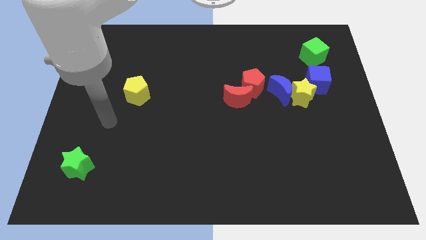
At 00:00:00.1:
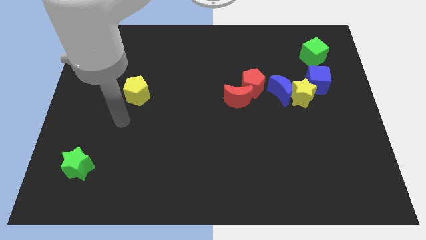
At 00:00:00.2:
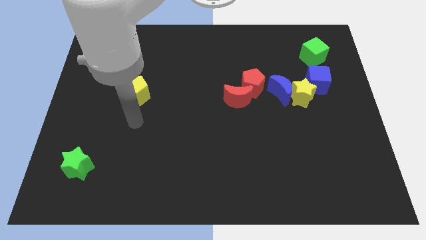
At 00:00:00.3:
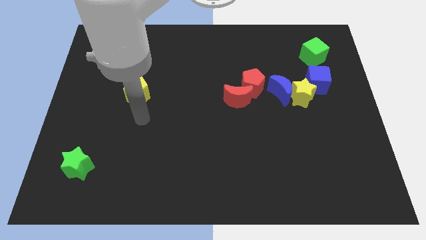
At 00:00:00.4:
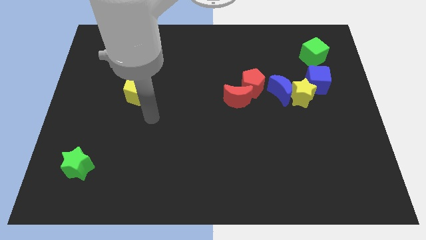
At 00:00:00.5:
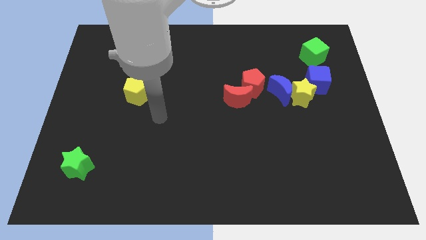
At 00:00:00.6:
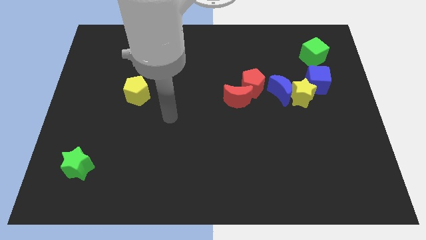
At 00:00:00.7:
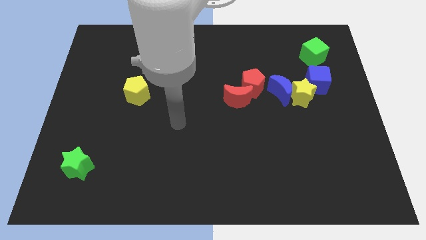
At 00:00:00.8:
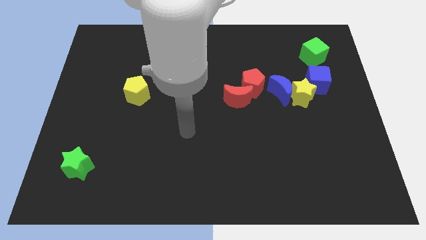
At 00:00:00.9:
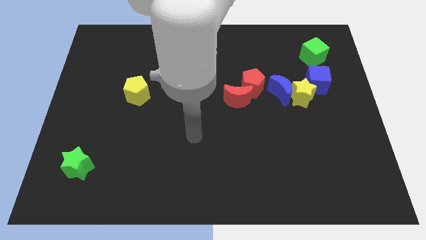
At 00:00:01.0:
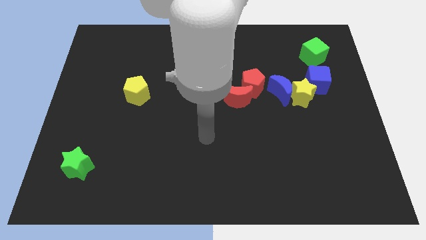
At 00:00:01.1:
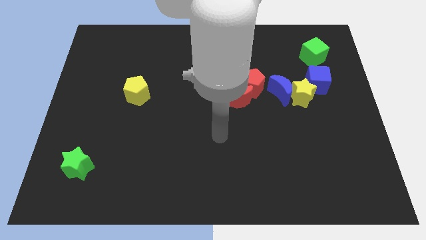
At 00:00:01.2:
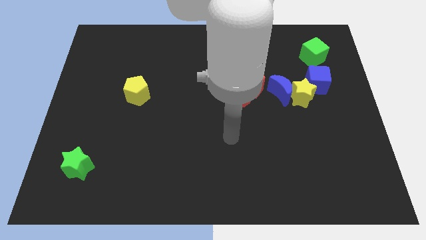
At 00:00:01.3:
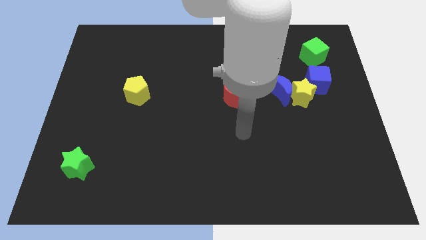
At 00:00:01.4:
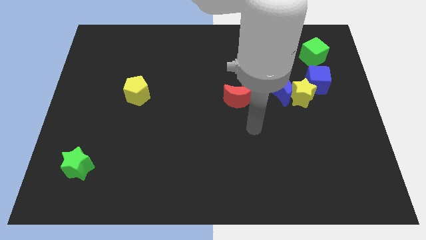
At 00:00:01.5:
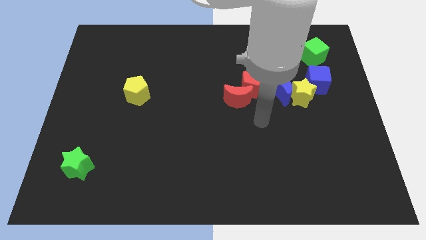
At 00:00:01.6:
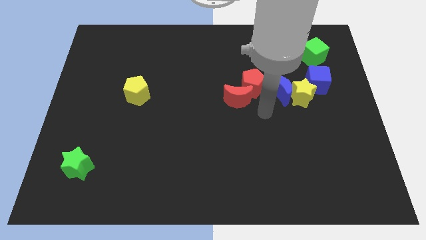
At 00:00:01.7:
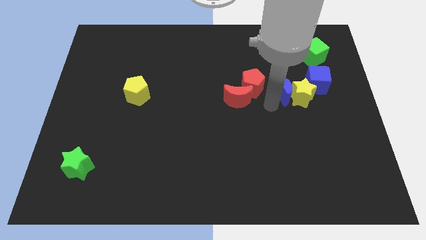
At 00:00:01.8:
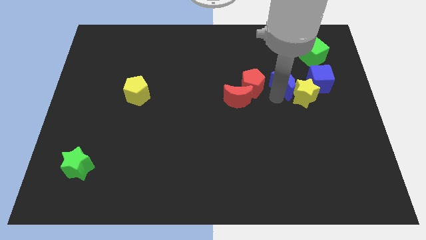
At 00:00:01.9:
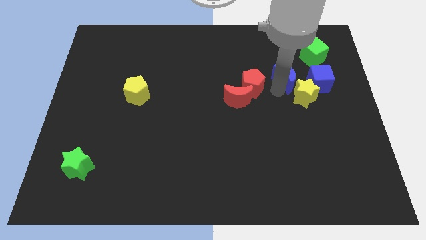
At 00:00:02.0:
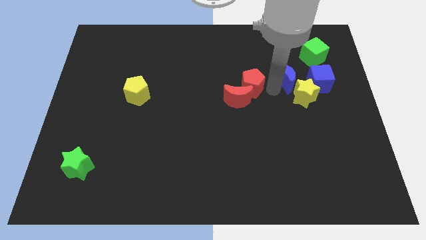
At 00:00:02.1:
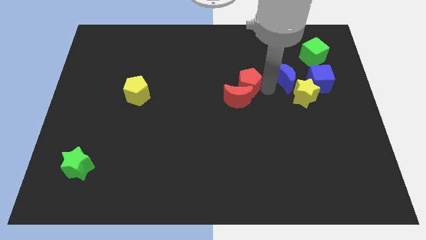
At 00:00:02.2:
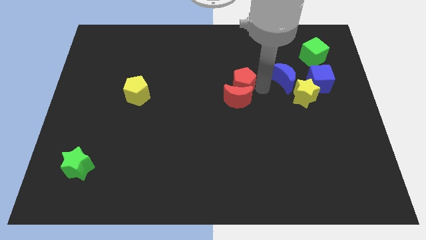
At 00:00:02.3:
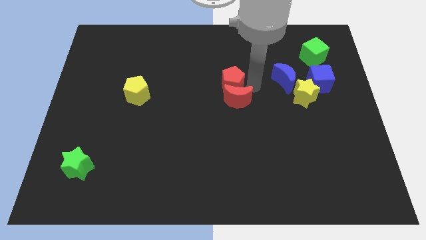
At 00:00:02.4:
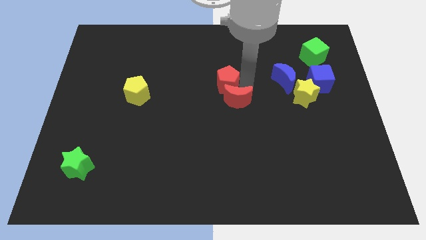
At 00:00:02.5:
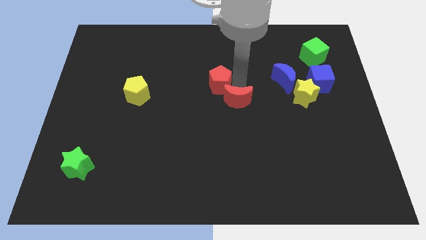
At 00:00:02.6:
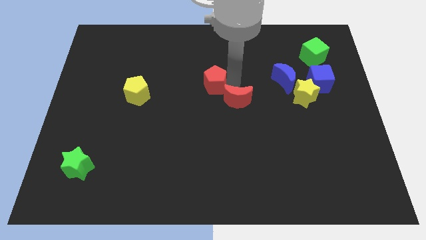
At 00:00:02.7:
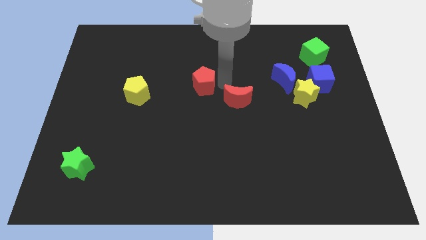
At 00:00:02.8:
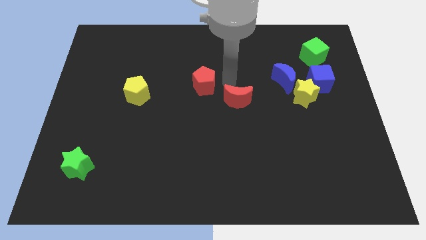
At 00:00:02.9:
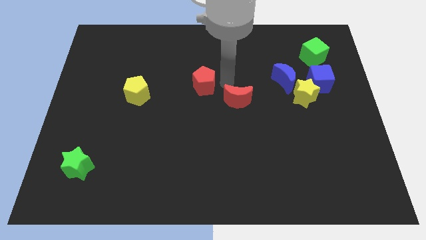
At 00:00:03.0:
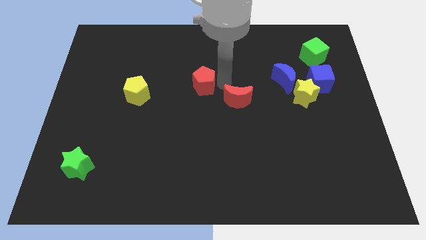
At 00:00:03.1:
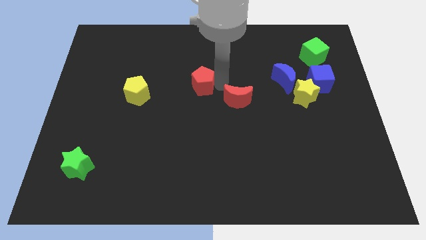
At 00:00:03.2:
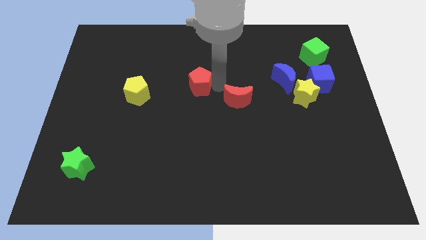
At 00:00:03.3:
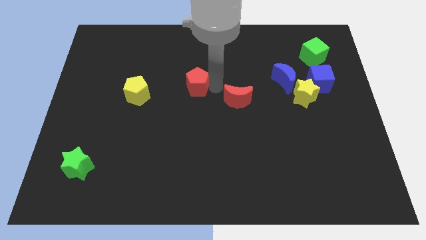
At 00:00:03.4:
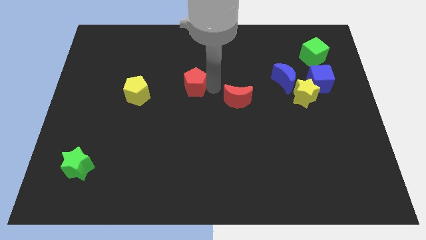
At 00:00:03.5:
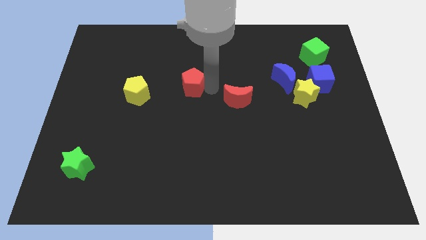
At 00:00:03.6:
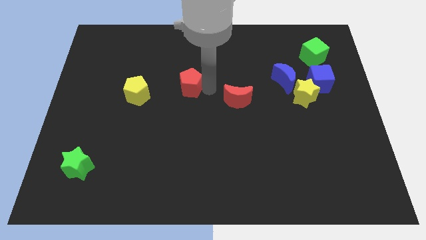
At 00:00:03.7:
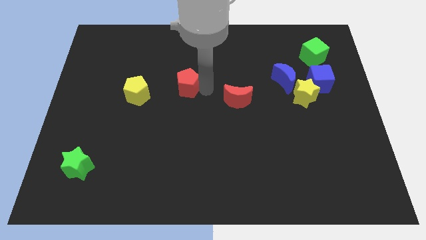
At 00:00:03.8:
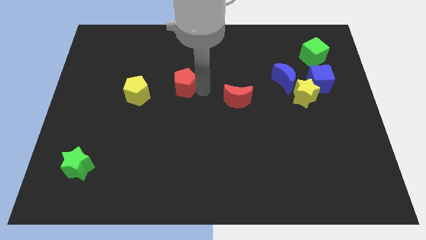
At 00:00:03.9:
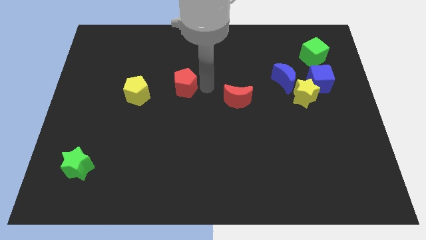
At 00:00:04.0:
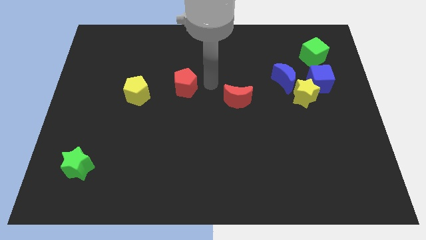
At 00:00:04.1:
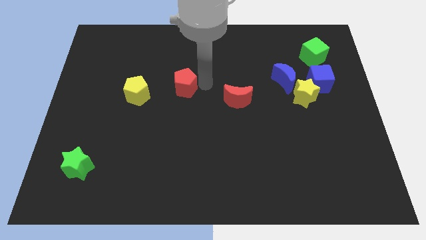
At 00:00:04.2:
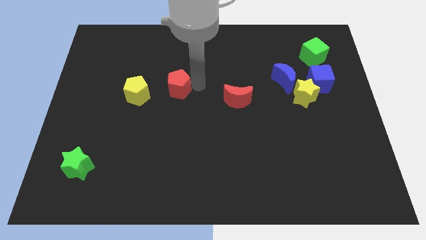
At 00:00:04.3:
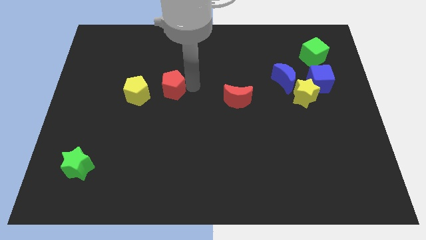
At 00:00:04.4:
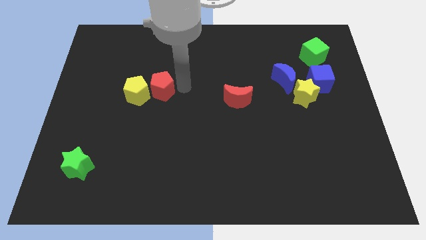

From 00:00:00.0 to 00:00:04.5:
move the red pentagon towards the yellow pentagon

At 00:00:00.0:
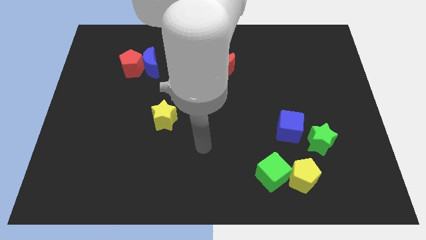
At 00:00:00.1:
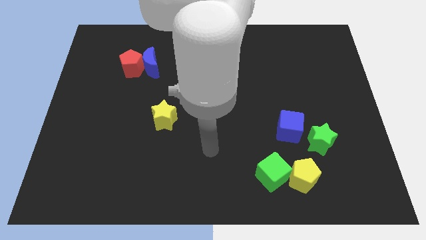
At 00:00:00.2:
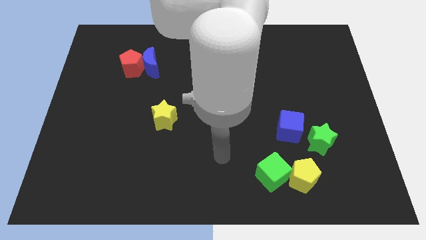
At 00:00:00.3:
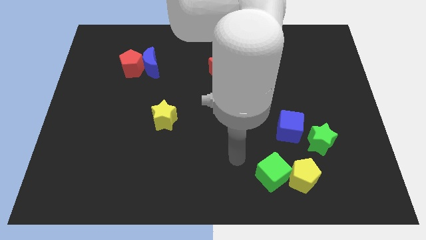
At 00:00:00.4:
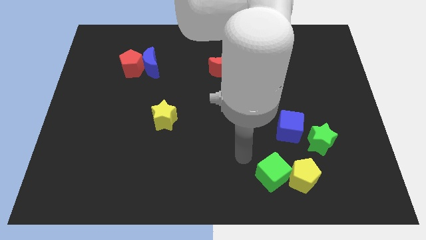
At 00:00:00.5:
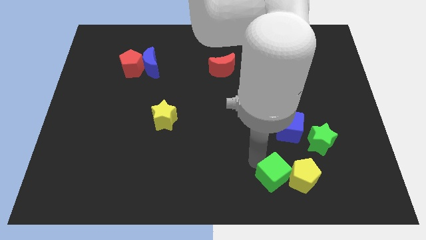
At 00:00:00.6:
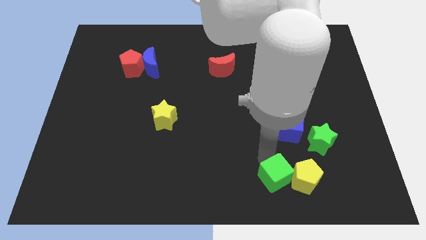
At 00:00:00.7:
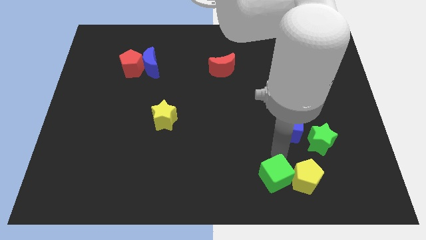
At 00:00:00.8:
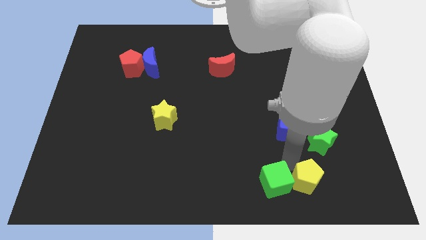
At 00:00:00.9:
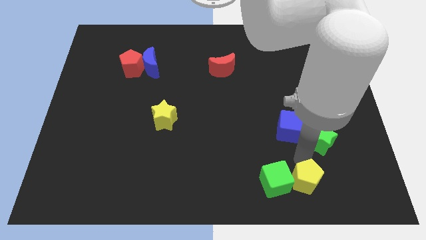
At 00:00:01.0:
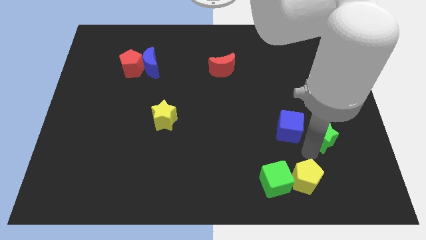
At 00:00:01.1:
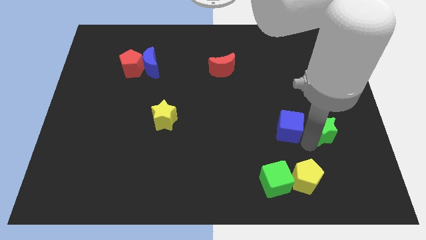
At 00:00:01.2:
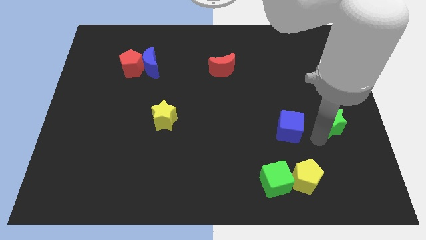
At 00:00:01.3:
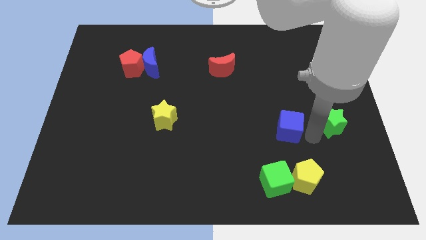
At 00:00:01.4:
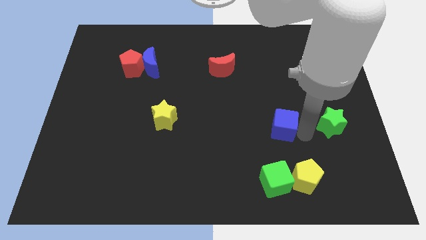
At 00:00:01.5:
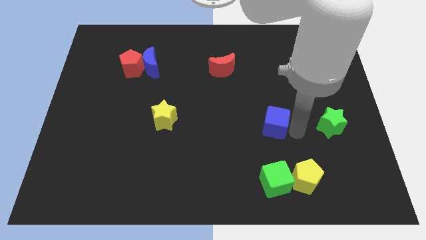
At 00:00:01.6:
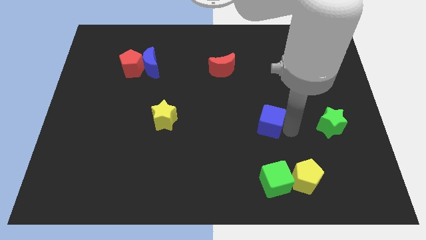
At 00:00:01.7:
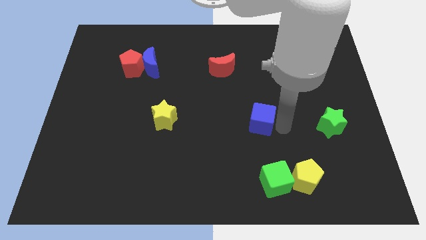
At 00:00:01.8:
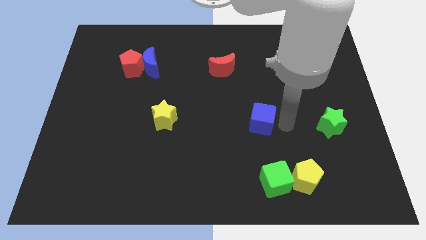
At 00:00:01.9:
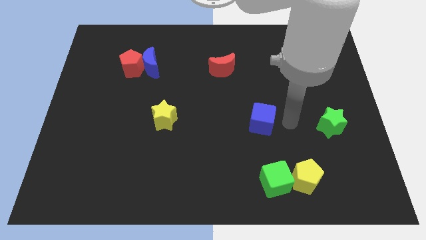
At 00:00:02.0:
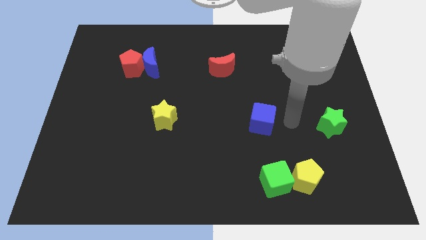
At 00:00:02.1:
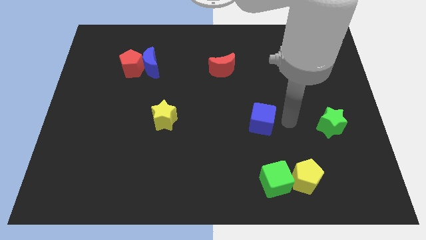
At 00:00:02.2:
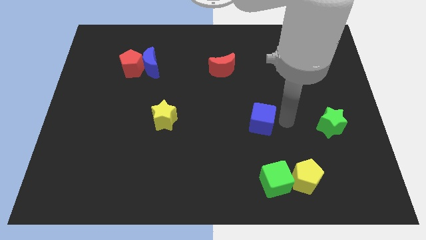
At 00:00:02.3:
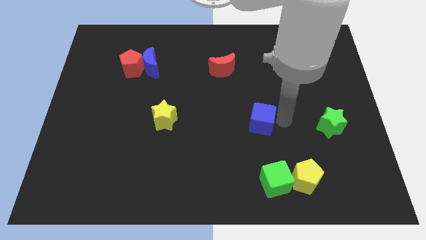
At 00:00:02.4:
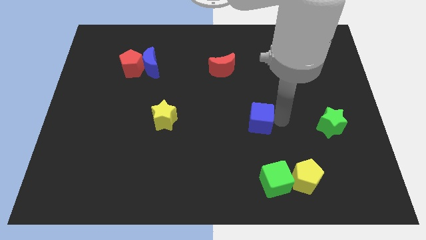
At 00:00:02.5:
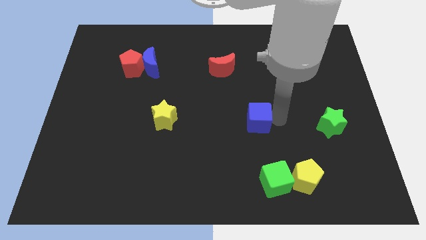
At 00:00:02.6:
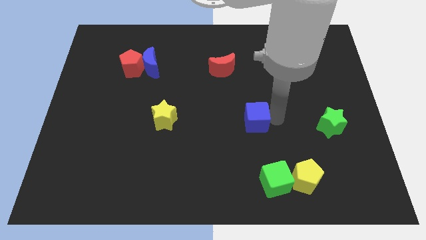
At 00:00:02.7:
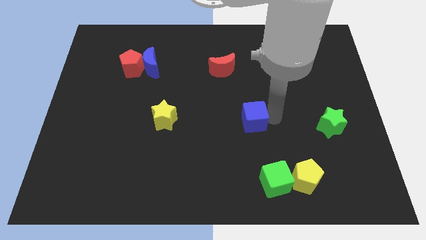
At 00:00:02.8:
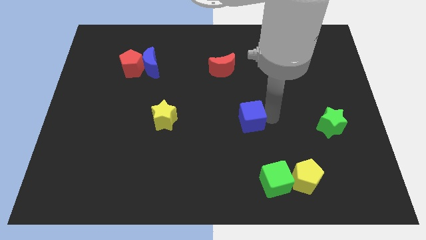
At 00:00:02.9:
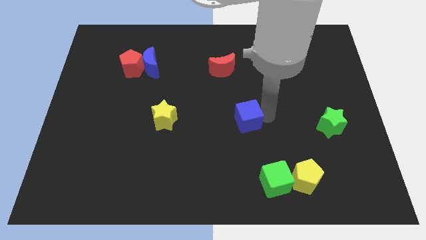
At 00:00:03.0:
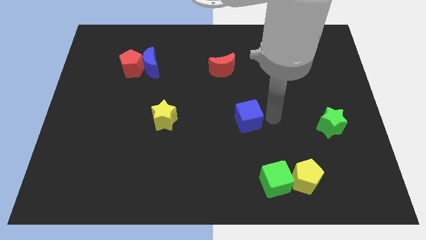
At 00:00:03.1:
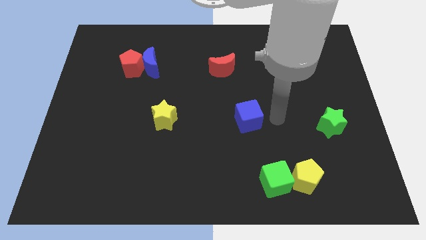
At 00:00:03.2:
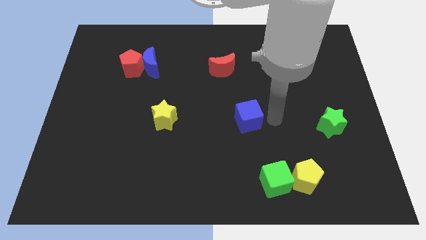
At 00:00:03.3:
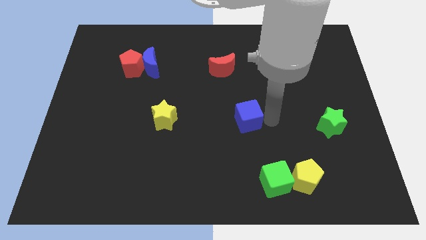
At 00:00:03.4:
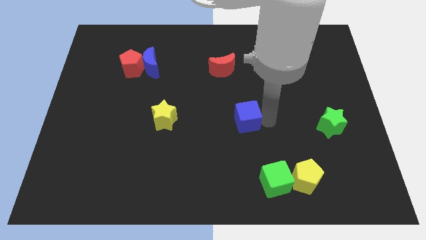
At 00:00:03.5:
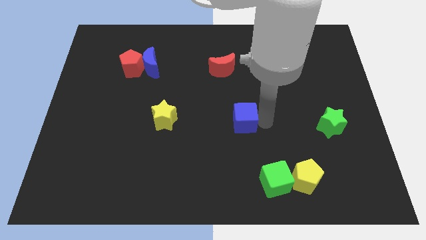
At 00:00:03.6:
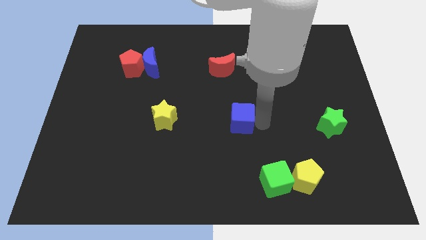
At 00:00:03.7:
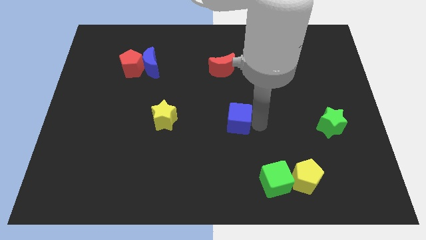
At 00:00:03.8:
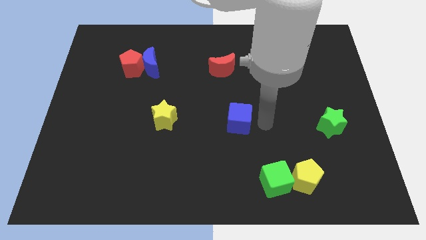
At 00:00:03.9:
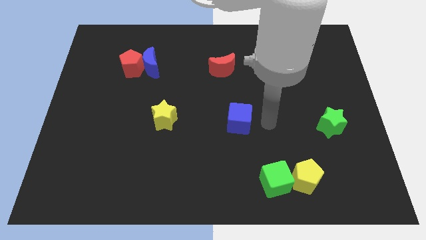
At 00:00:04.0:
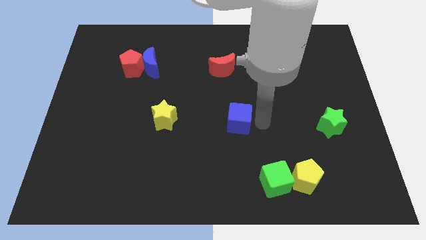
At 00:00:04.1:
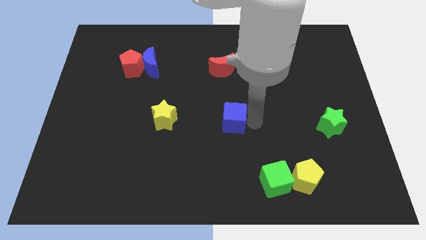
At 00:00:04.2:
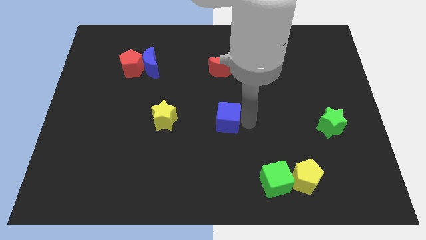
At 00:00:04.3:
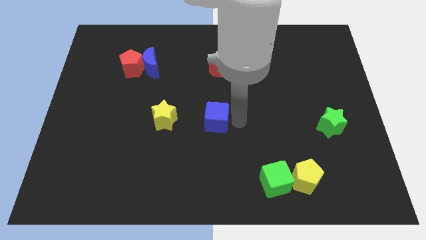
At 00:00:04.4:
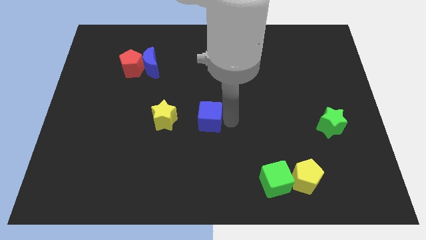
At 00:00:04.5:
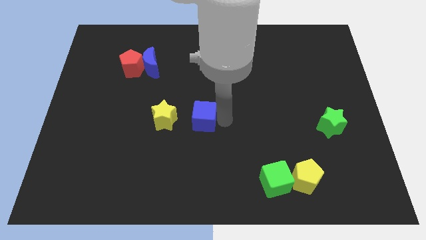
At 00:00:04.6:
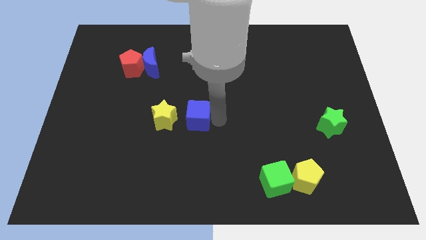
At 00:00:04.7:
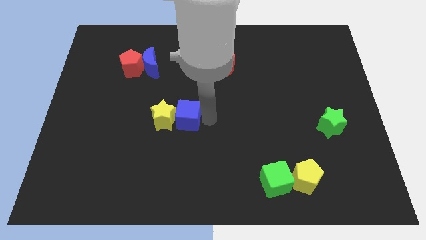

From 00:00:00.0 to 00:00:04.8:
move the blue cube next to the yellow star
